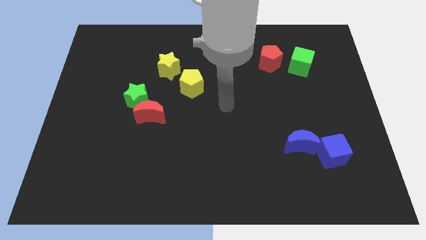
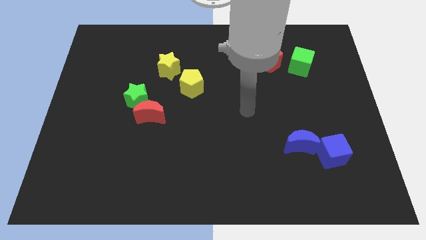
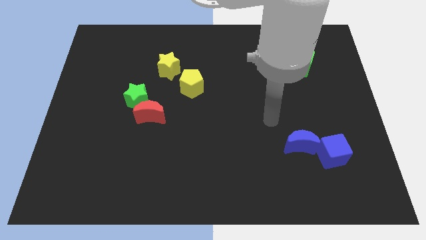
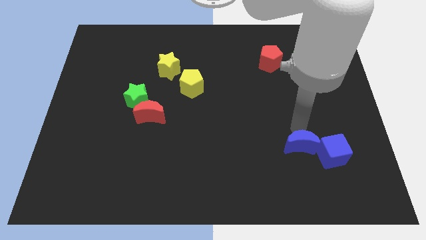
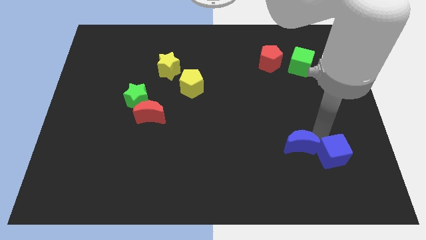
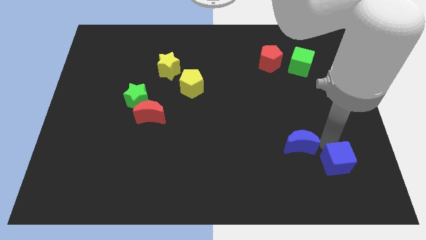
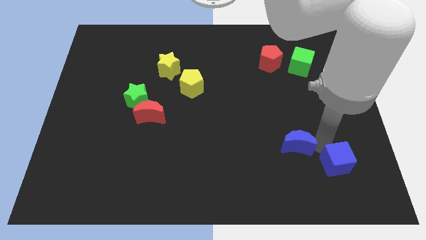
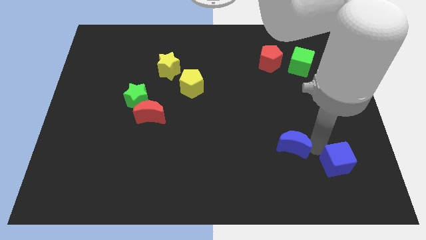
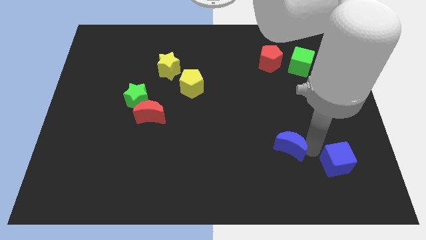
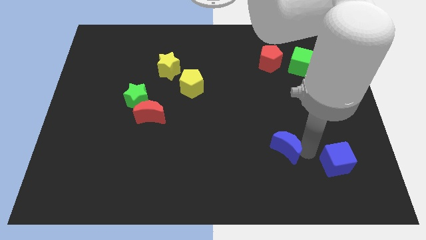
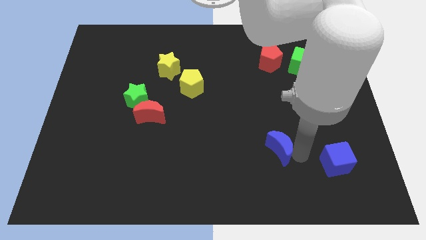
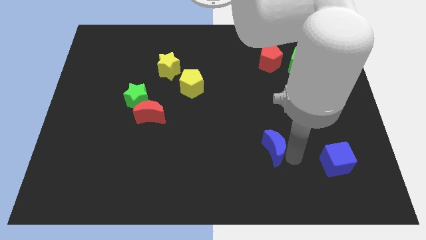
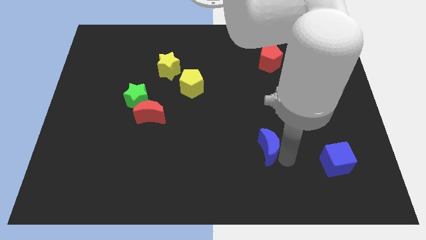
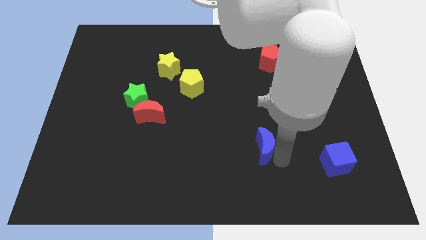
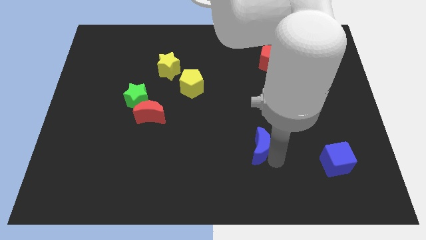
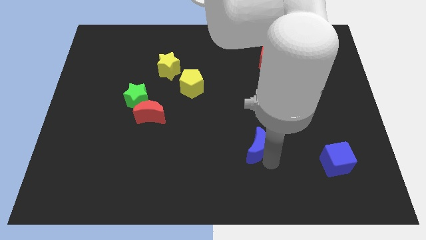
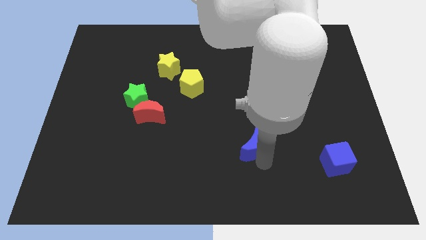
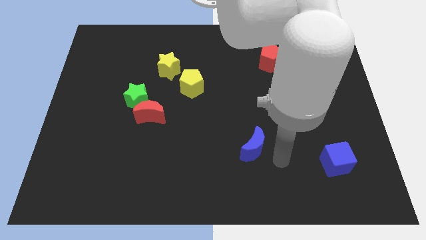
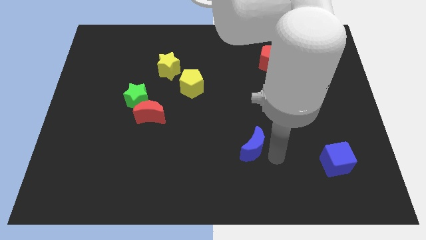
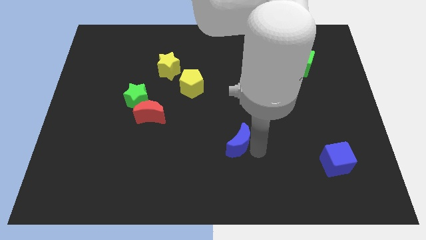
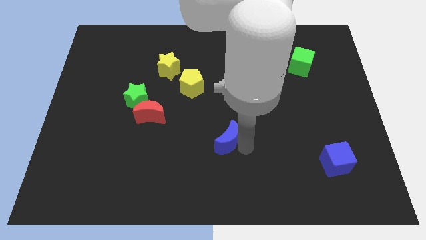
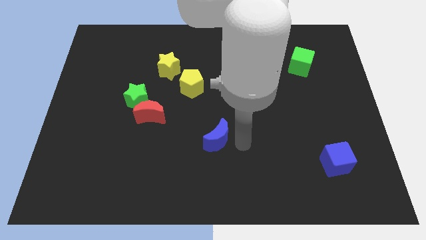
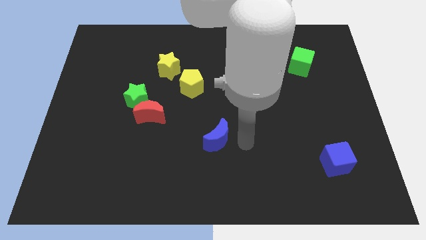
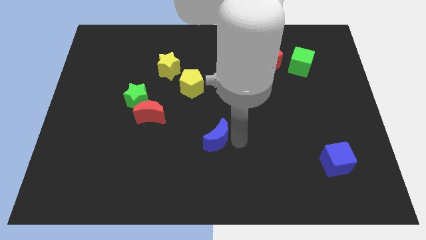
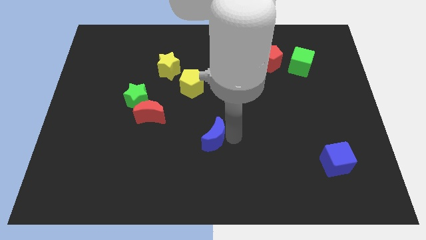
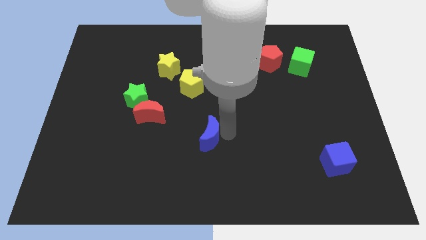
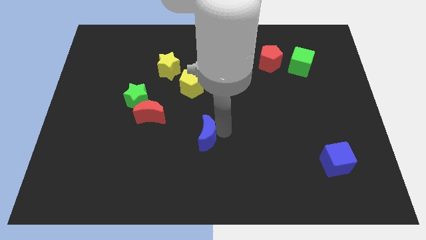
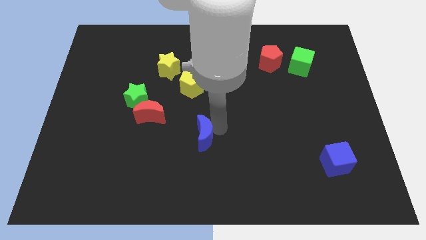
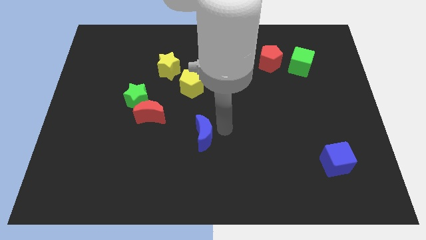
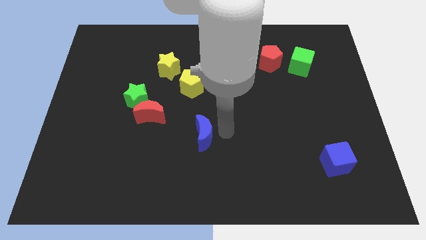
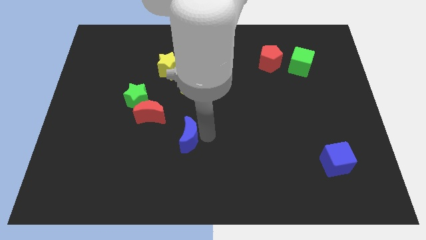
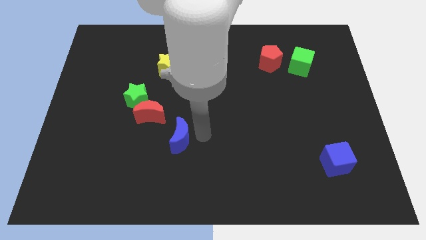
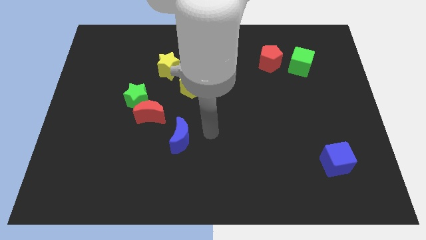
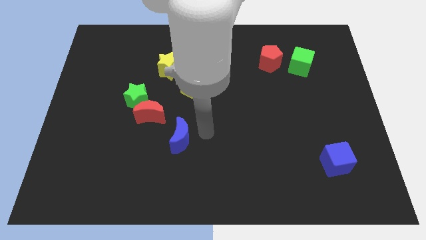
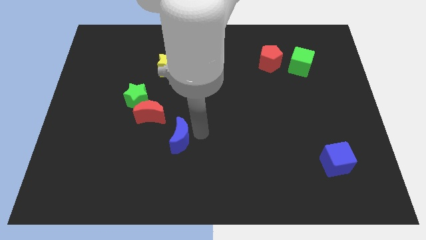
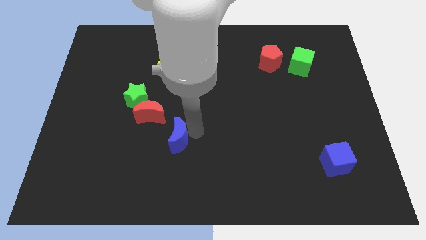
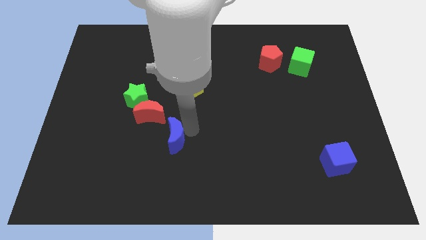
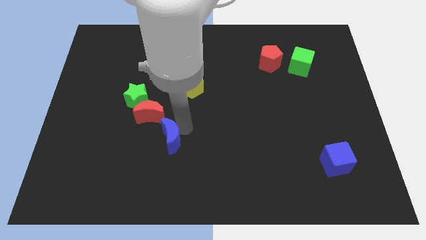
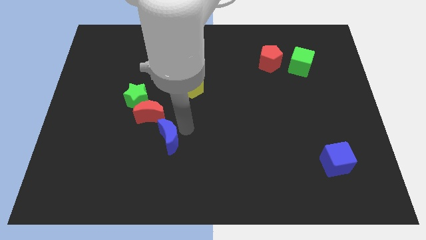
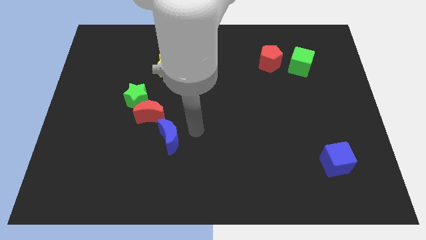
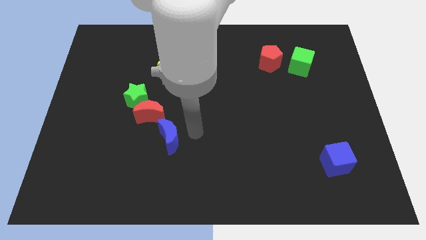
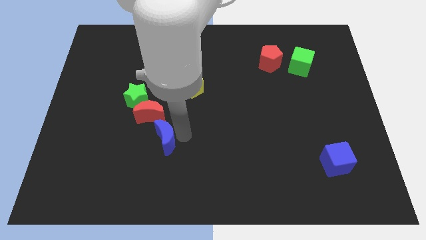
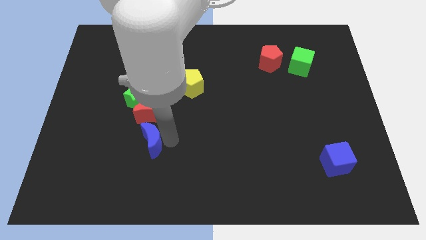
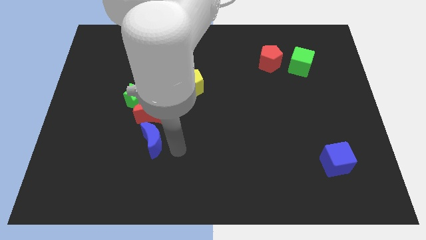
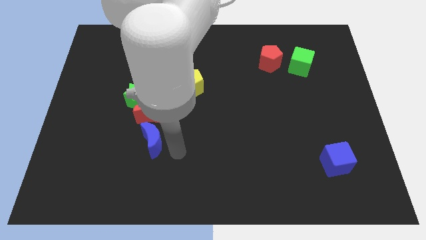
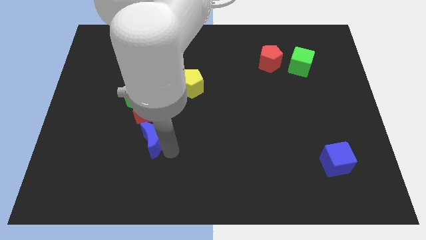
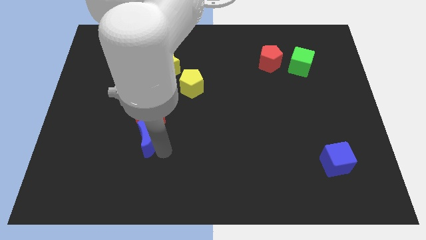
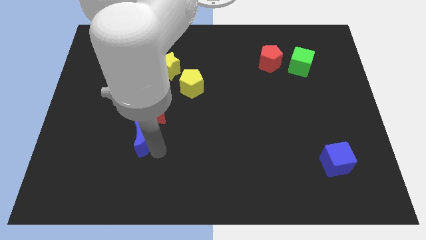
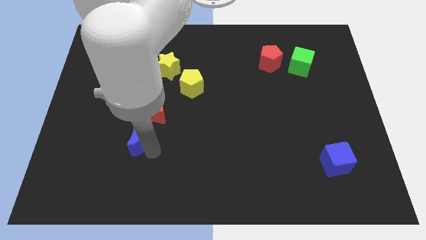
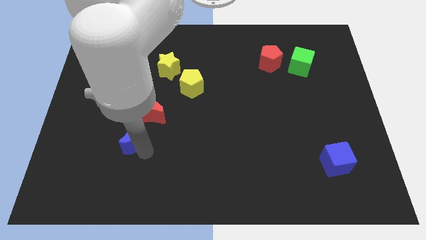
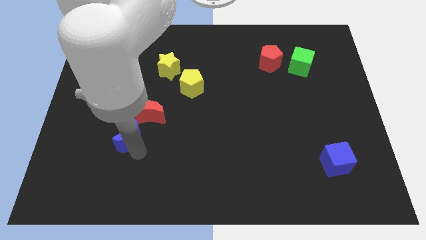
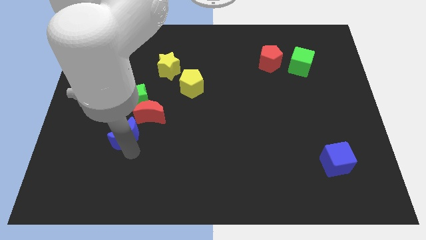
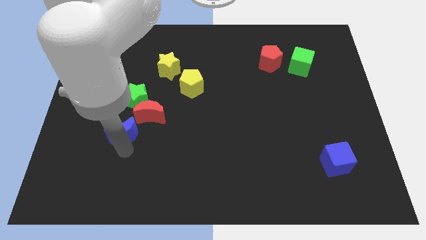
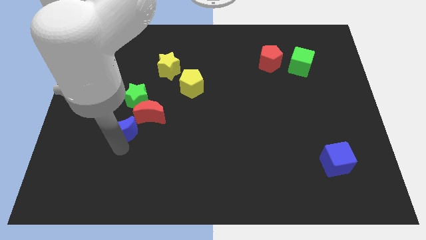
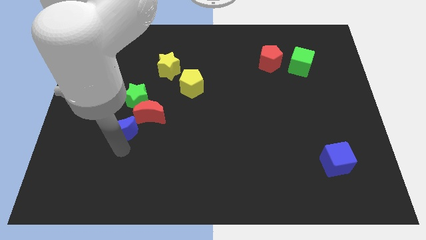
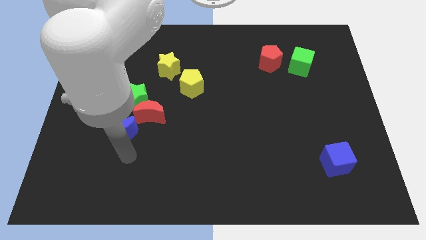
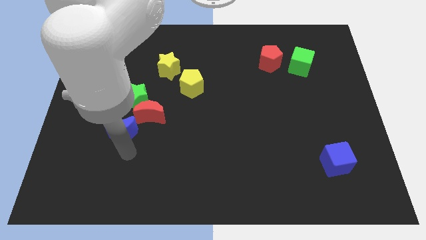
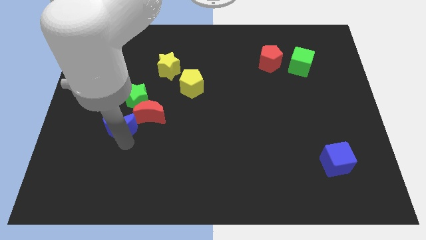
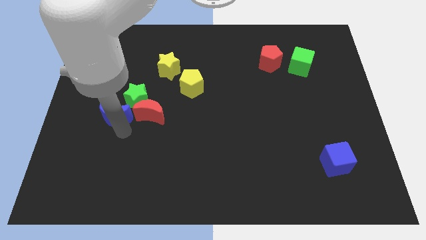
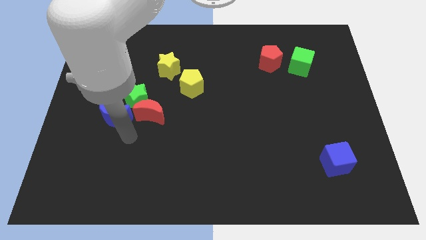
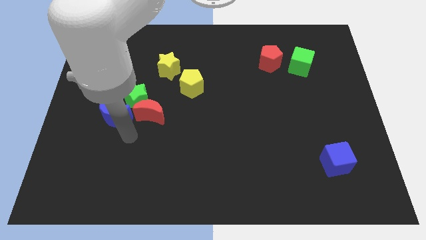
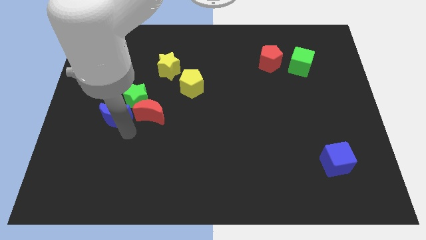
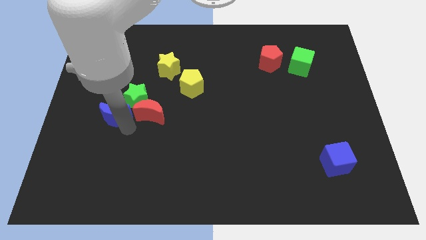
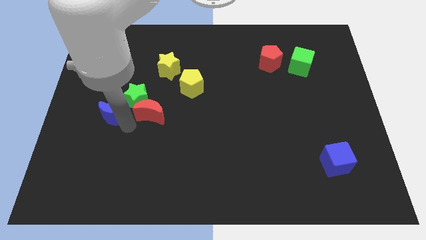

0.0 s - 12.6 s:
move the blue moon to the left side of the green star

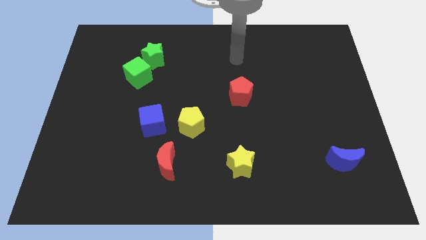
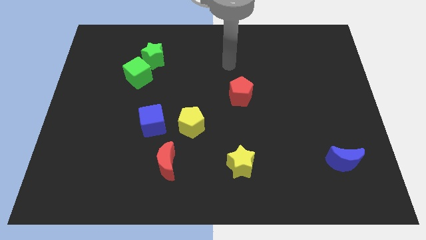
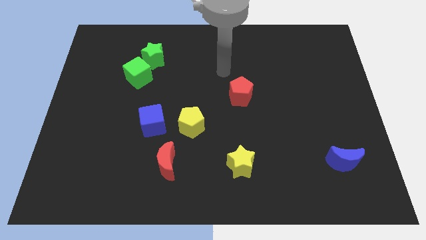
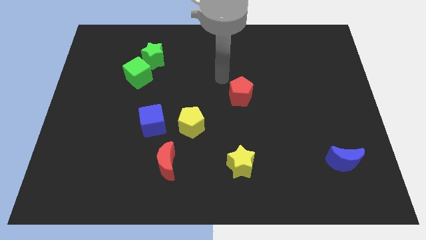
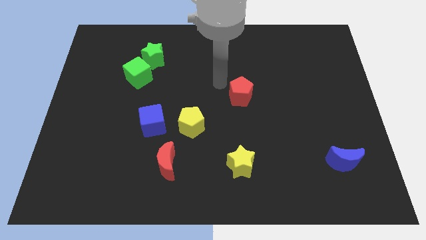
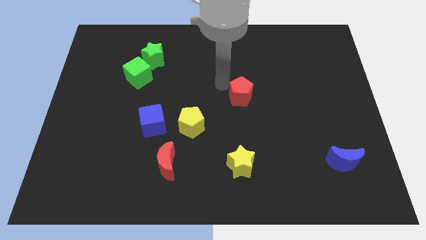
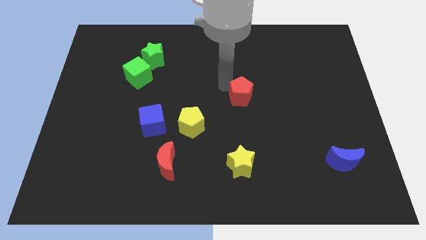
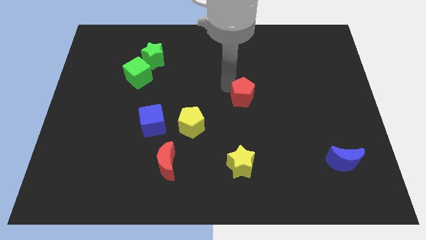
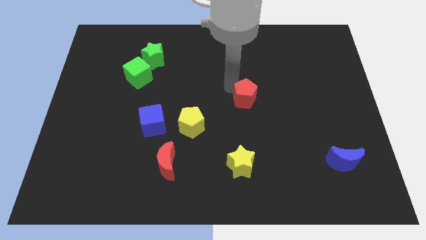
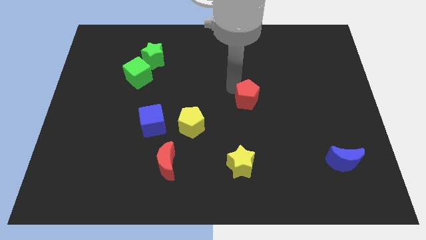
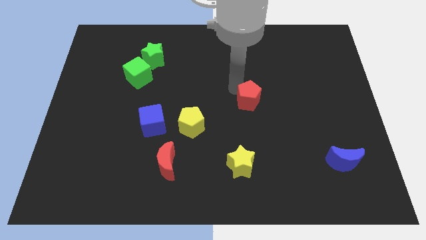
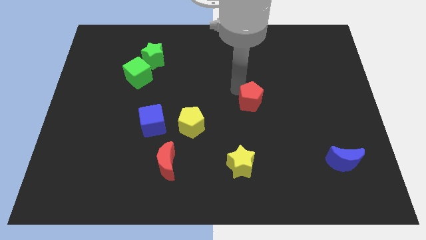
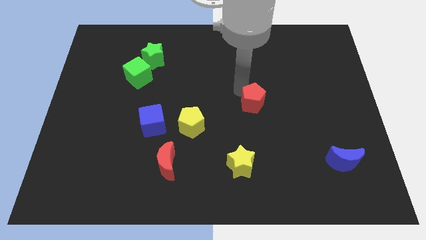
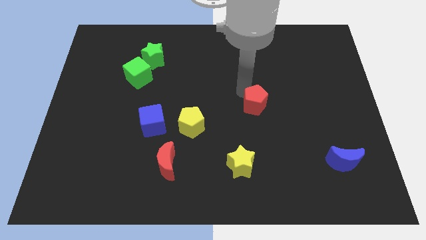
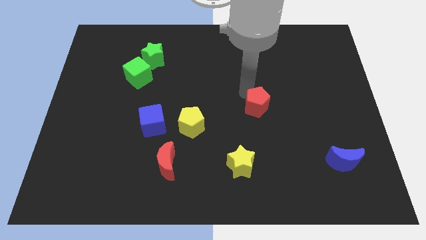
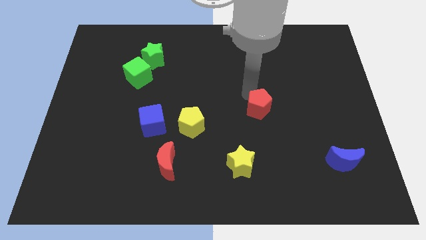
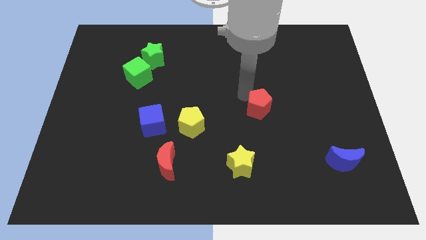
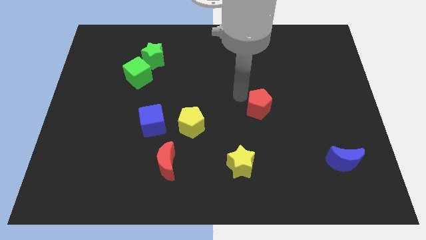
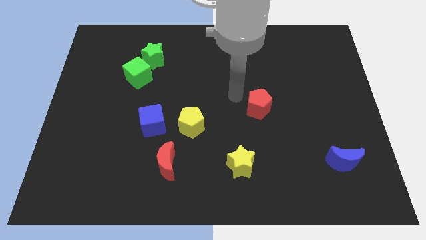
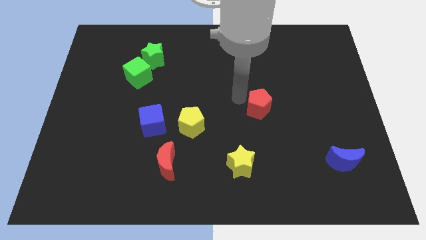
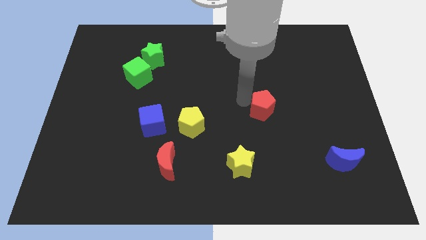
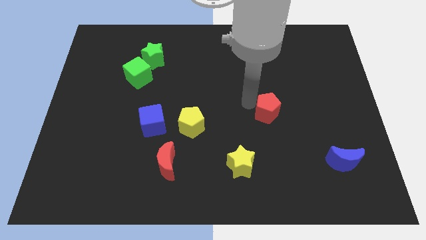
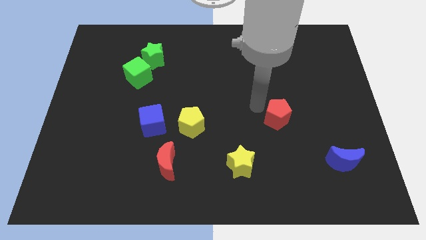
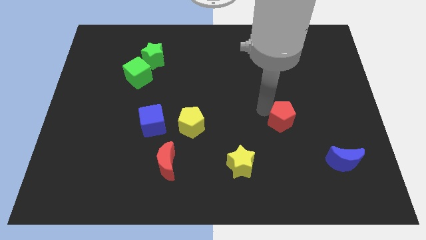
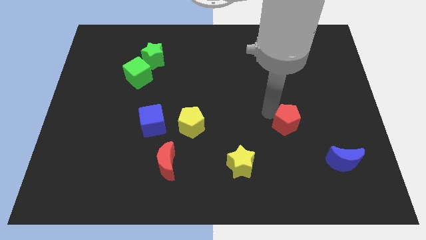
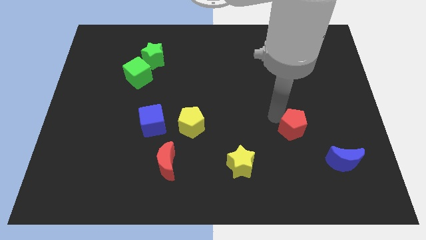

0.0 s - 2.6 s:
put the red pentagon to the top left of the blue moon
